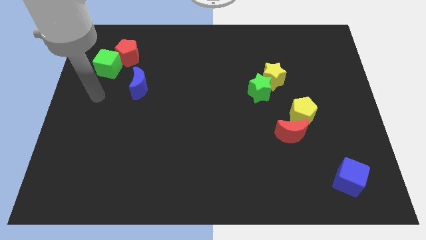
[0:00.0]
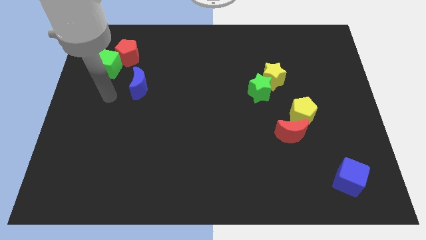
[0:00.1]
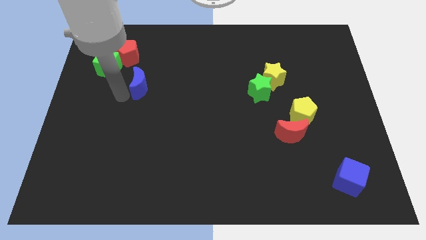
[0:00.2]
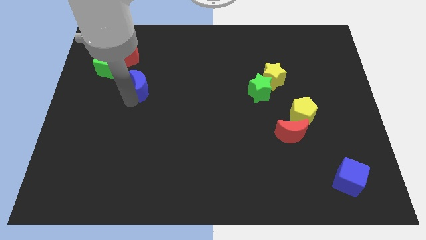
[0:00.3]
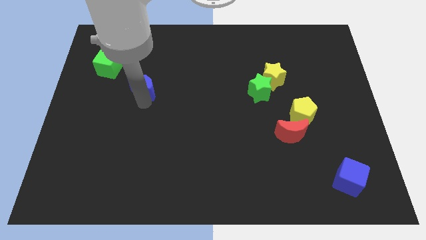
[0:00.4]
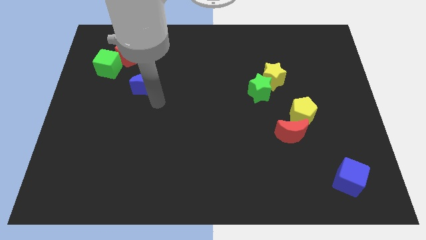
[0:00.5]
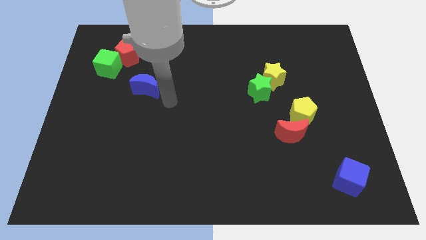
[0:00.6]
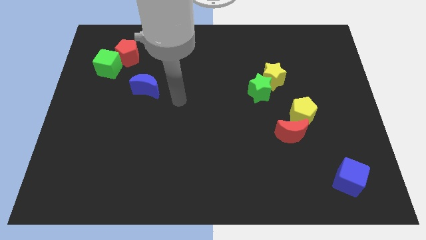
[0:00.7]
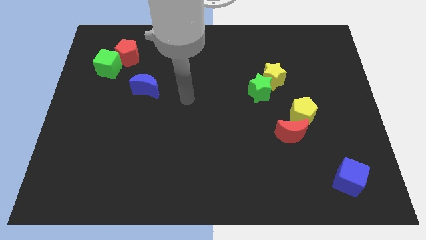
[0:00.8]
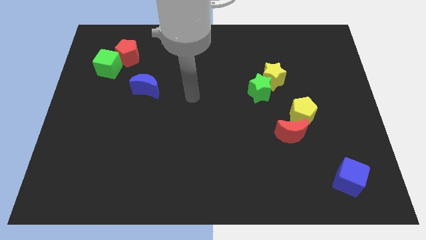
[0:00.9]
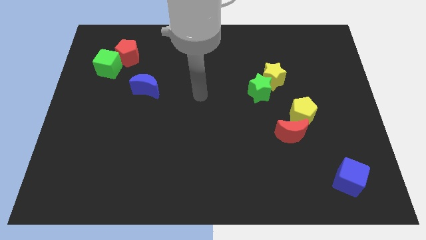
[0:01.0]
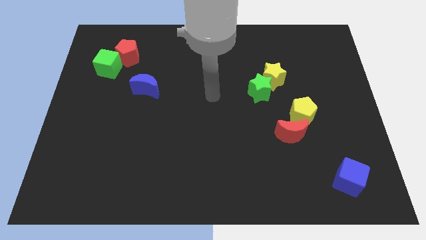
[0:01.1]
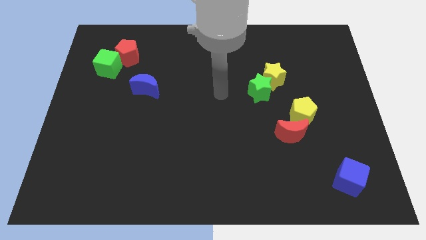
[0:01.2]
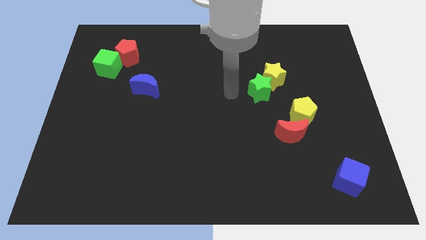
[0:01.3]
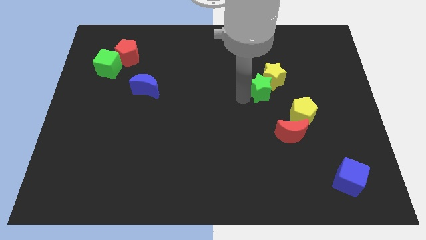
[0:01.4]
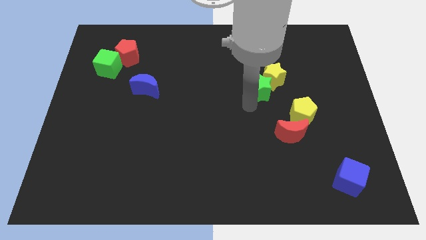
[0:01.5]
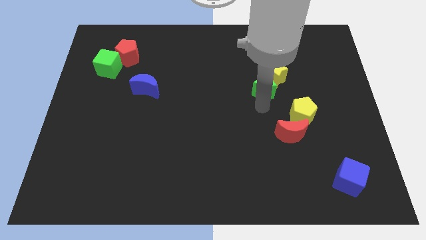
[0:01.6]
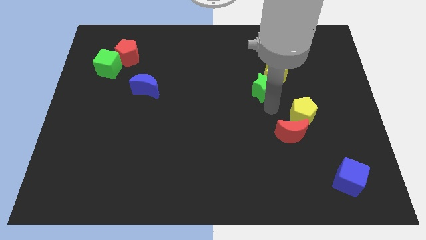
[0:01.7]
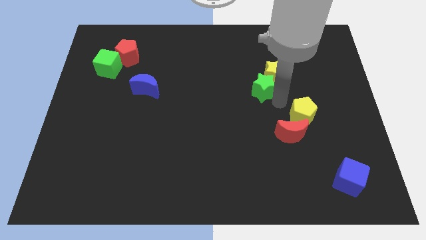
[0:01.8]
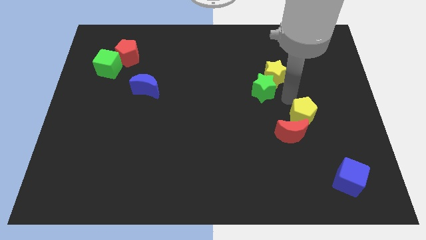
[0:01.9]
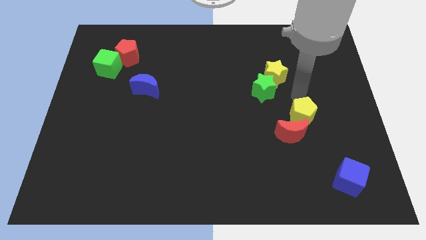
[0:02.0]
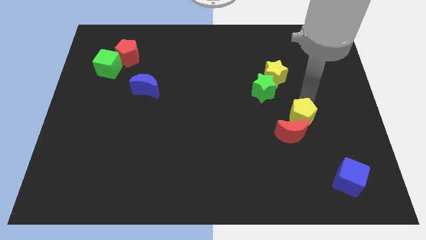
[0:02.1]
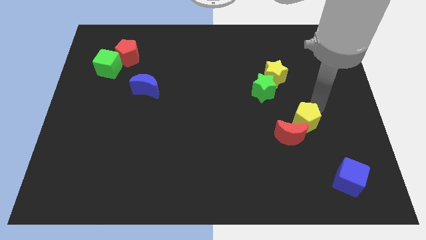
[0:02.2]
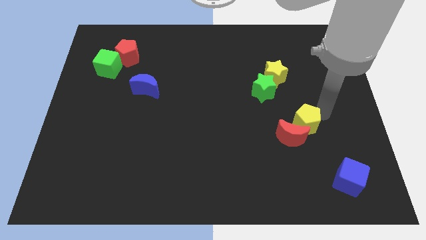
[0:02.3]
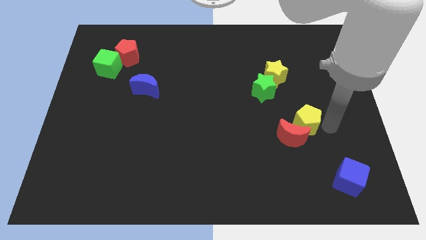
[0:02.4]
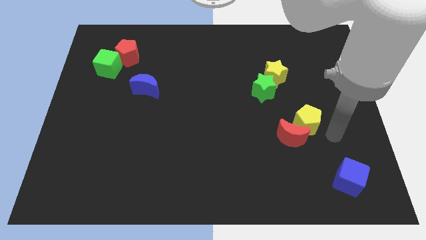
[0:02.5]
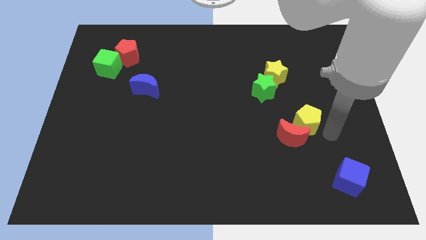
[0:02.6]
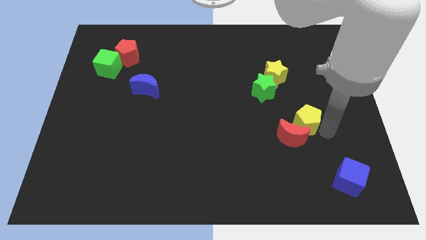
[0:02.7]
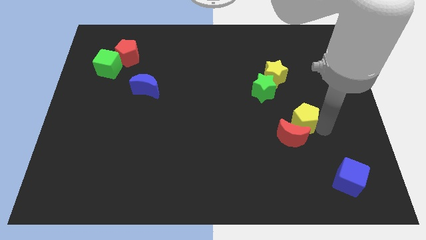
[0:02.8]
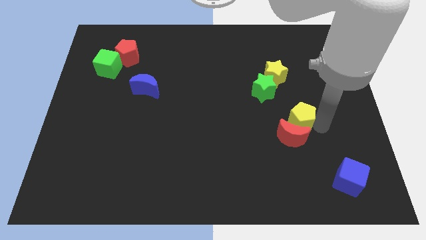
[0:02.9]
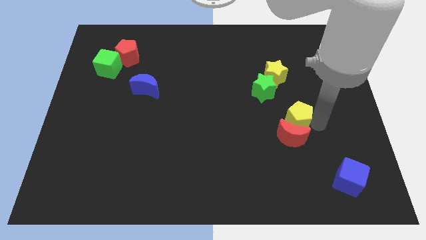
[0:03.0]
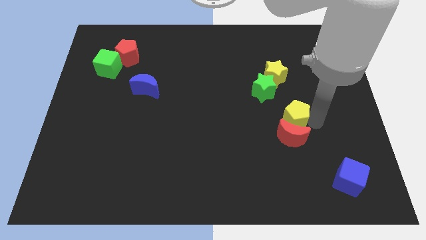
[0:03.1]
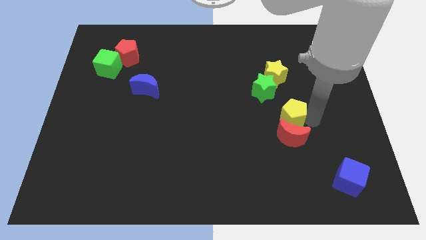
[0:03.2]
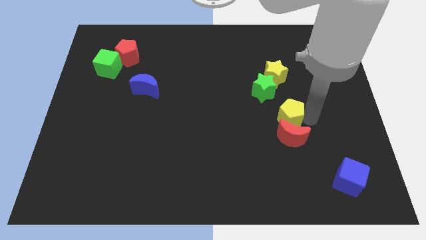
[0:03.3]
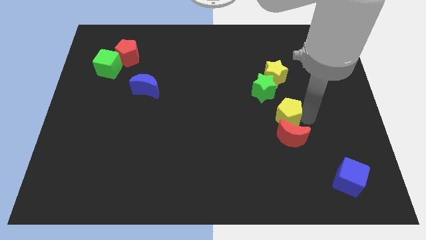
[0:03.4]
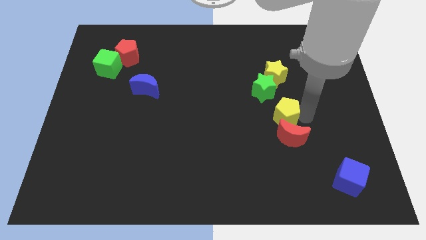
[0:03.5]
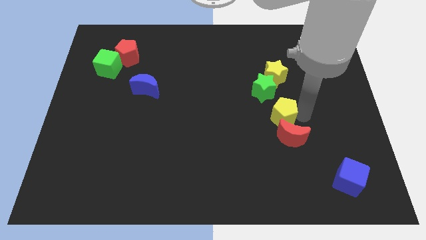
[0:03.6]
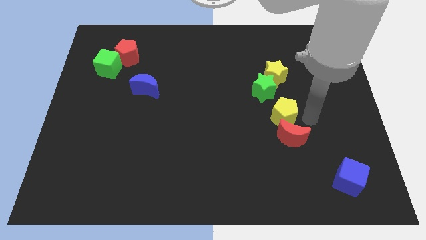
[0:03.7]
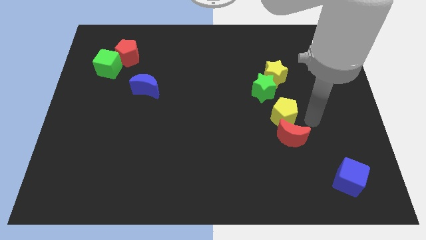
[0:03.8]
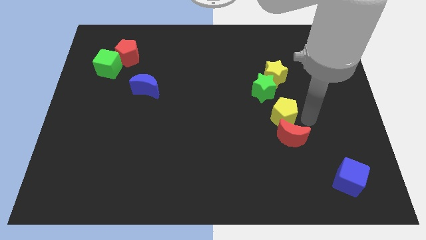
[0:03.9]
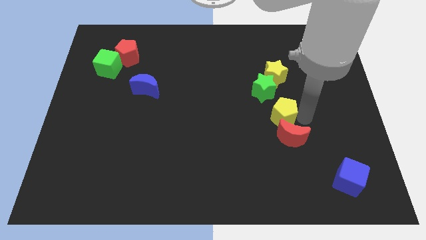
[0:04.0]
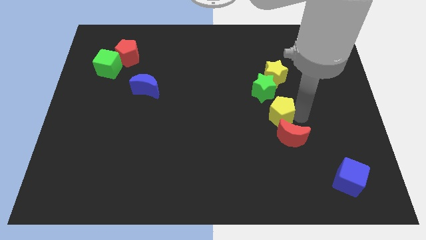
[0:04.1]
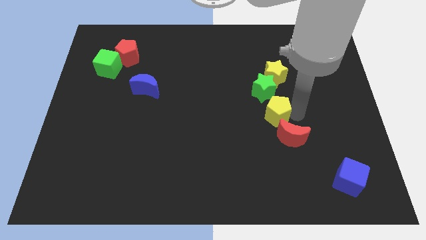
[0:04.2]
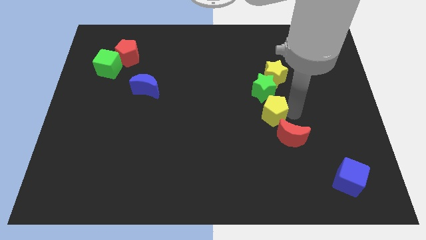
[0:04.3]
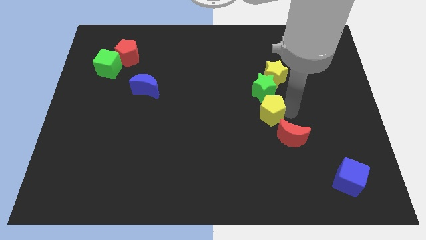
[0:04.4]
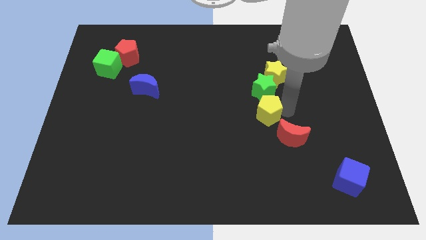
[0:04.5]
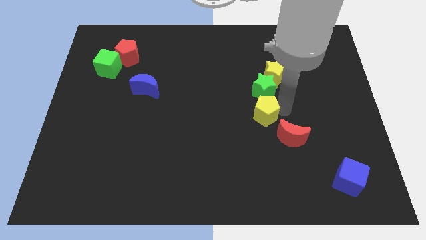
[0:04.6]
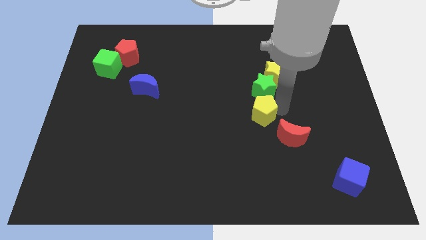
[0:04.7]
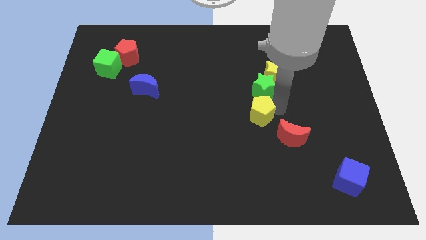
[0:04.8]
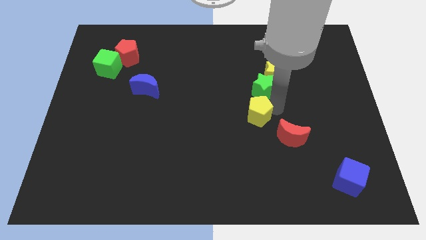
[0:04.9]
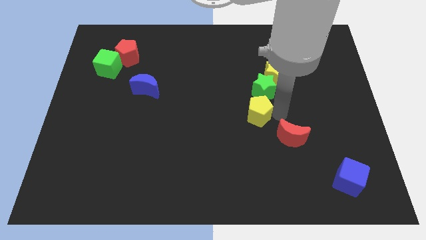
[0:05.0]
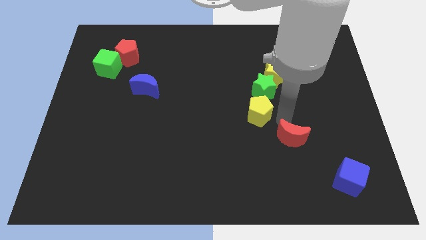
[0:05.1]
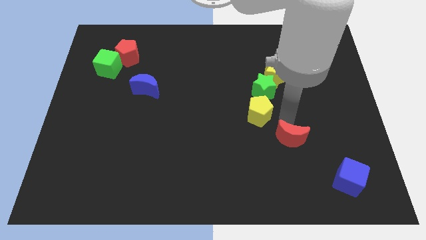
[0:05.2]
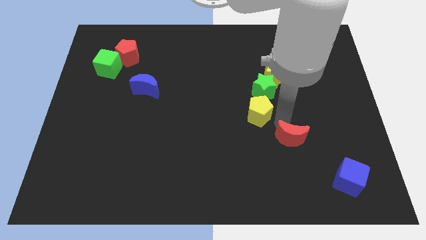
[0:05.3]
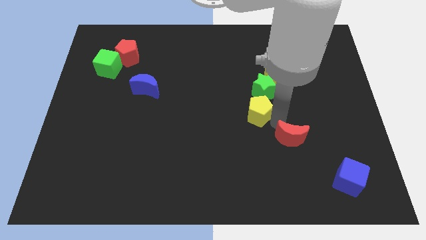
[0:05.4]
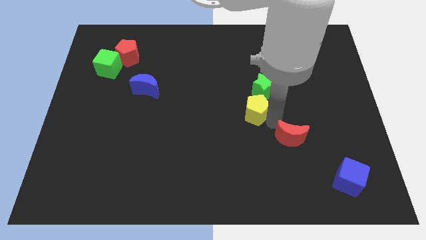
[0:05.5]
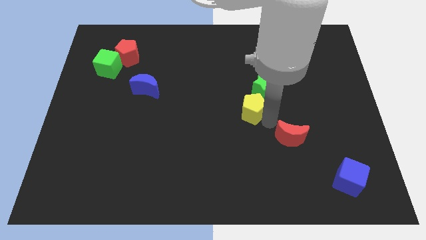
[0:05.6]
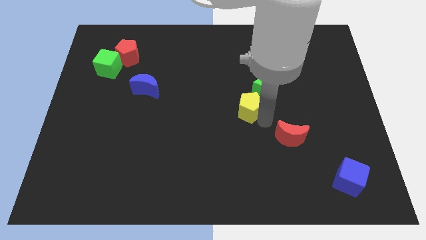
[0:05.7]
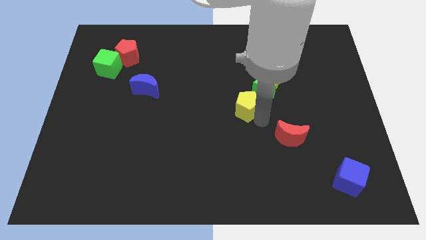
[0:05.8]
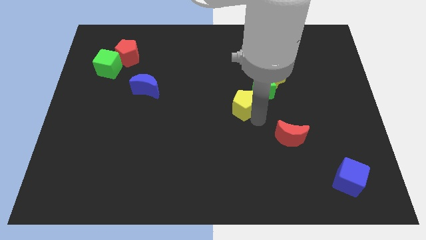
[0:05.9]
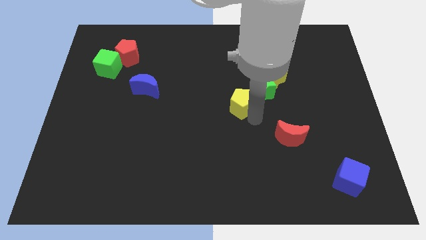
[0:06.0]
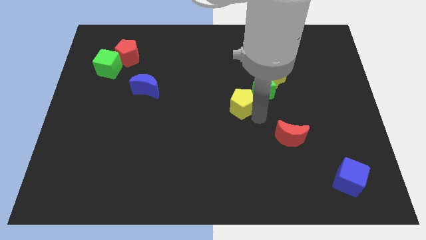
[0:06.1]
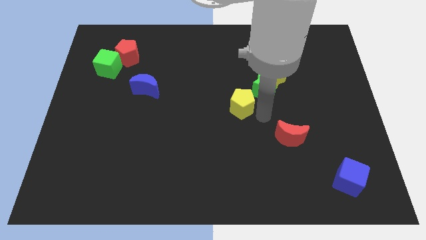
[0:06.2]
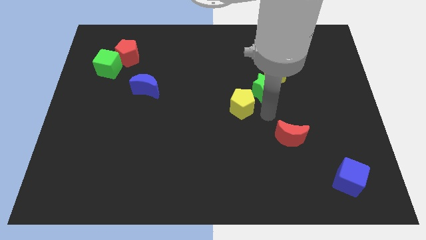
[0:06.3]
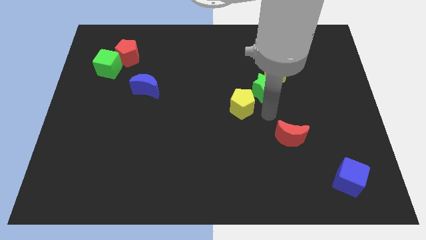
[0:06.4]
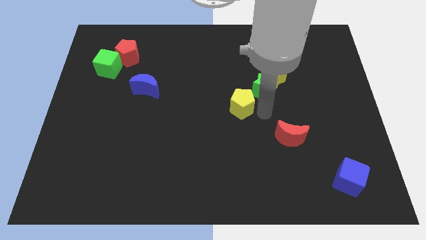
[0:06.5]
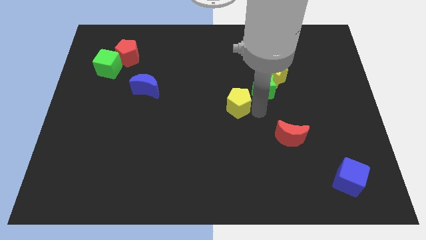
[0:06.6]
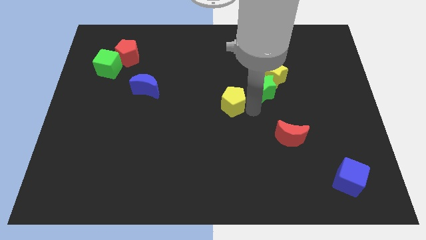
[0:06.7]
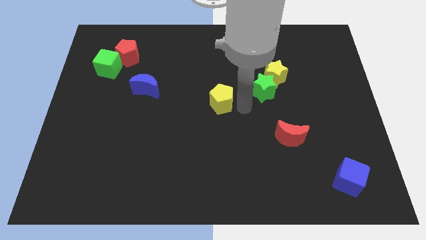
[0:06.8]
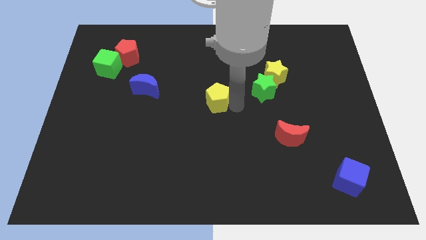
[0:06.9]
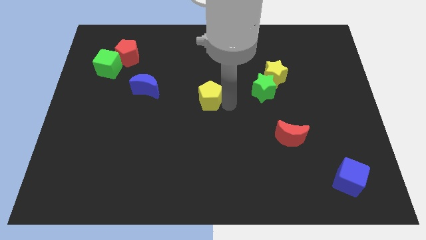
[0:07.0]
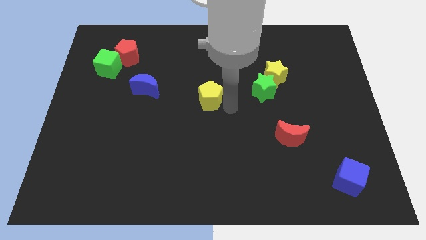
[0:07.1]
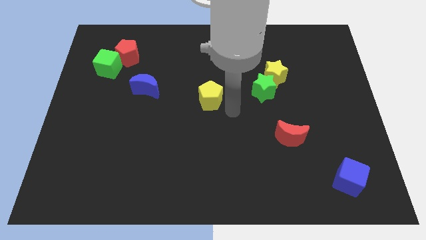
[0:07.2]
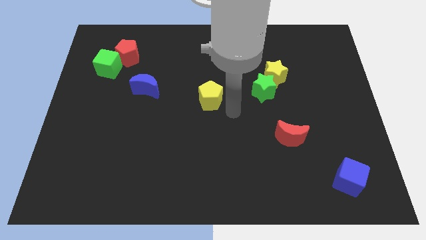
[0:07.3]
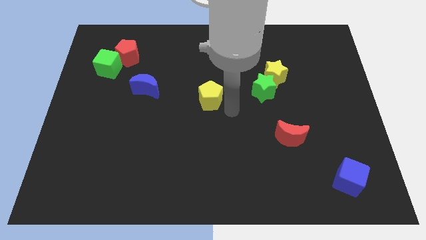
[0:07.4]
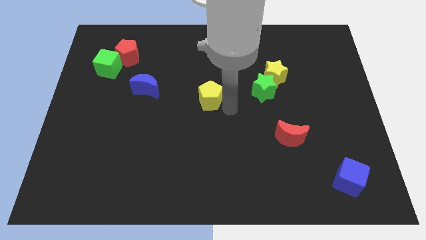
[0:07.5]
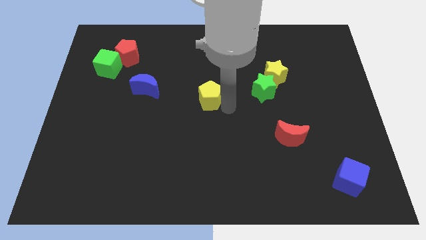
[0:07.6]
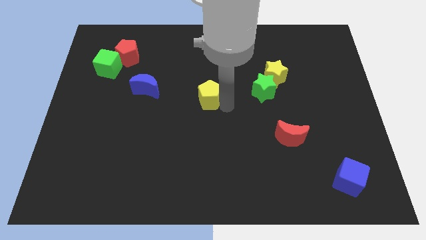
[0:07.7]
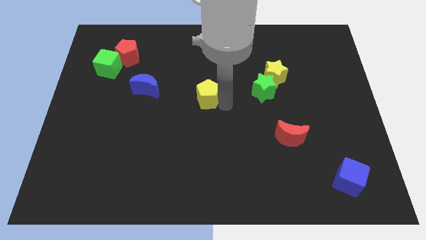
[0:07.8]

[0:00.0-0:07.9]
push the yellow pentagon to the right of the blue moon

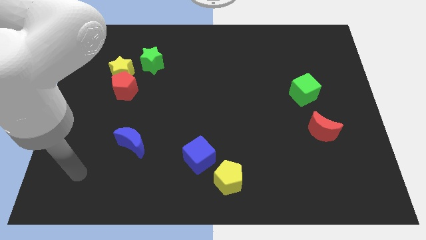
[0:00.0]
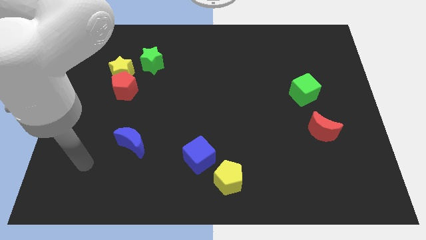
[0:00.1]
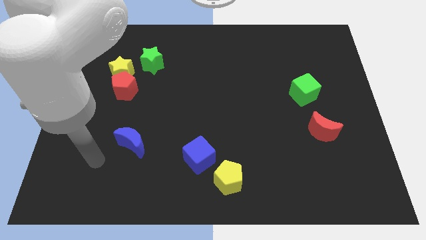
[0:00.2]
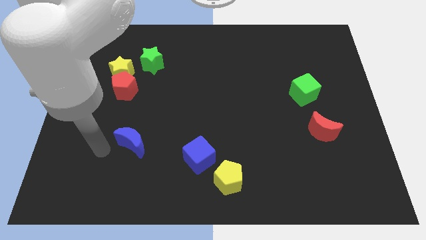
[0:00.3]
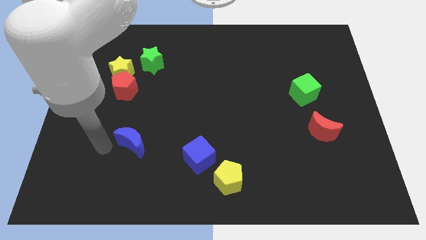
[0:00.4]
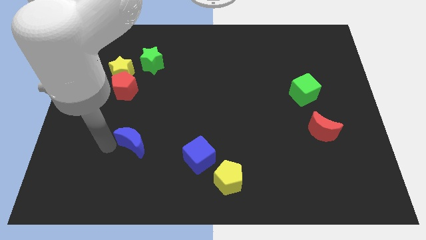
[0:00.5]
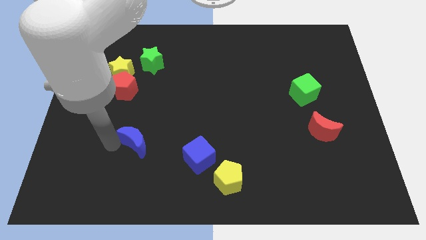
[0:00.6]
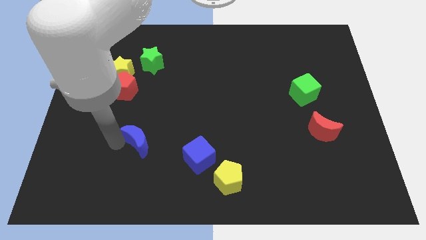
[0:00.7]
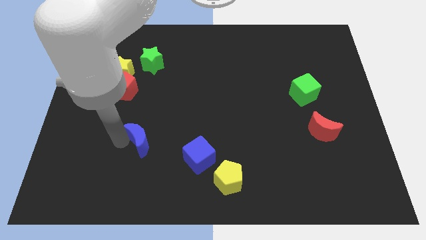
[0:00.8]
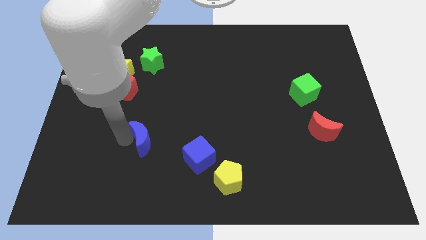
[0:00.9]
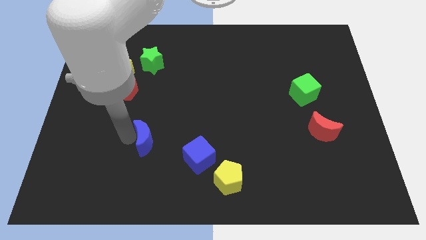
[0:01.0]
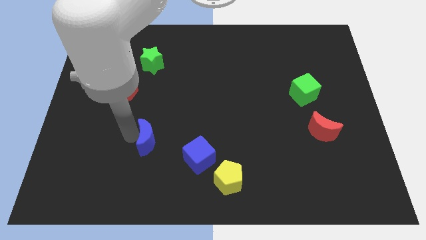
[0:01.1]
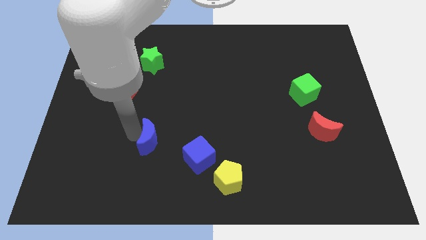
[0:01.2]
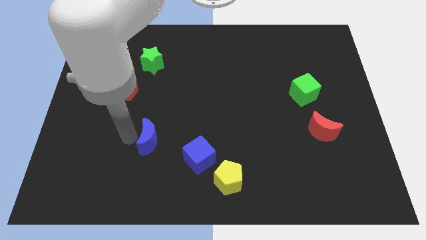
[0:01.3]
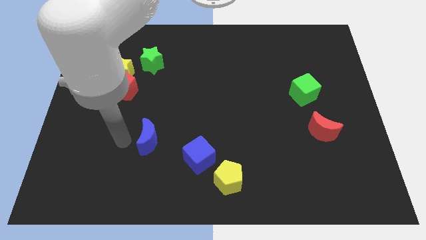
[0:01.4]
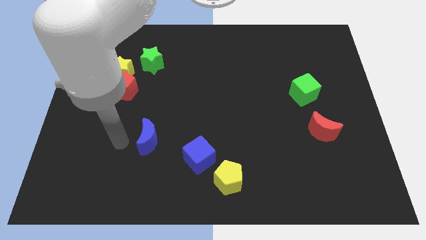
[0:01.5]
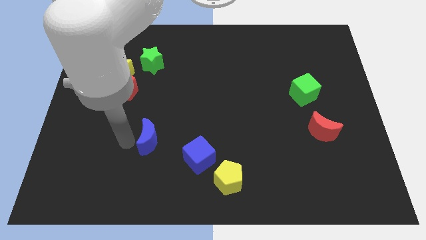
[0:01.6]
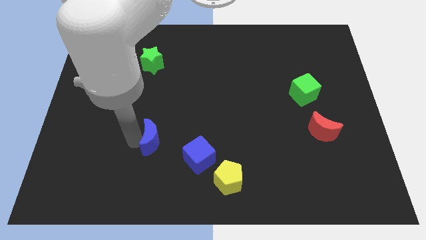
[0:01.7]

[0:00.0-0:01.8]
put the blue moon to the top left side of the blue cube
